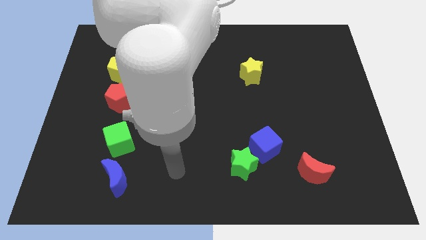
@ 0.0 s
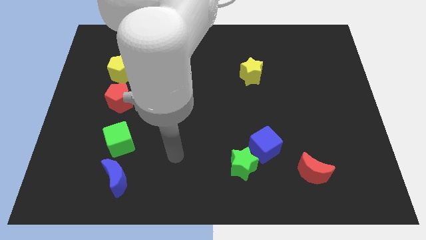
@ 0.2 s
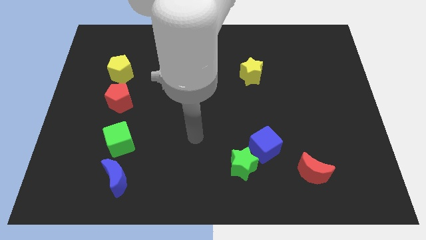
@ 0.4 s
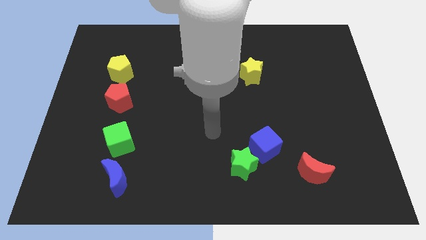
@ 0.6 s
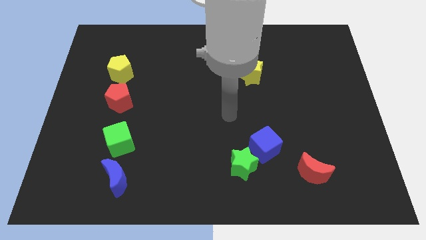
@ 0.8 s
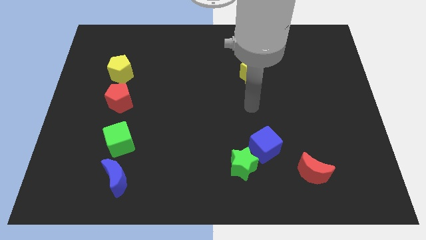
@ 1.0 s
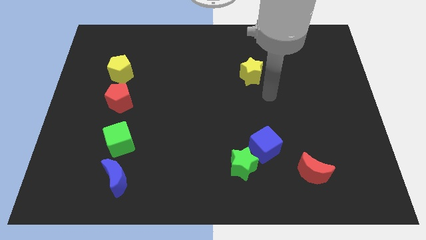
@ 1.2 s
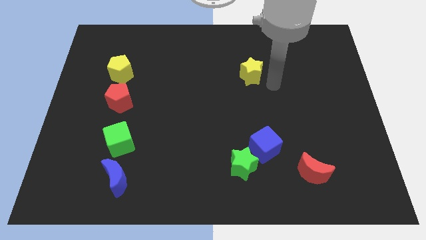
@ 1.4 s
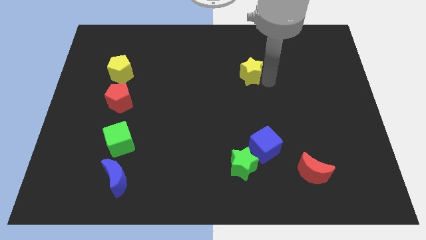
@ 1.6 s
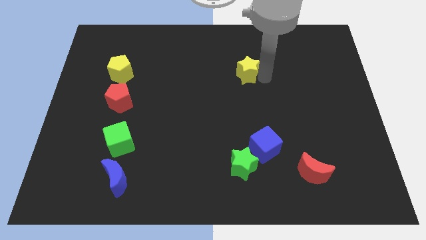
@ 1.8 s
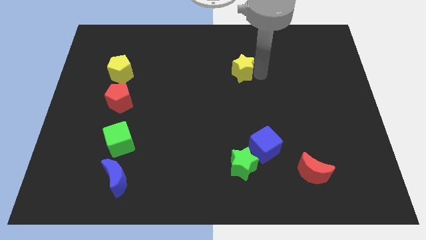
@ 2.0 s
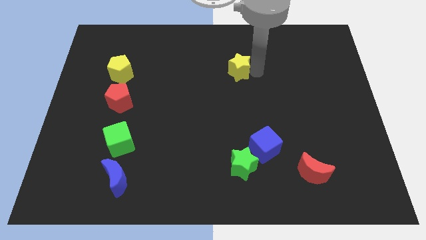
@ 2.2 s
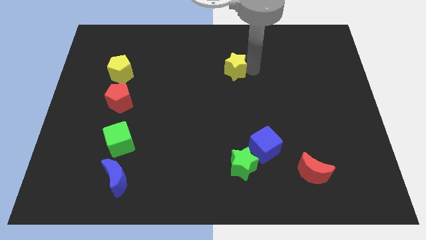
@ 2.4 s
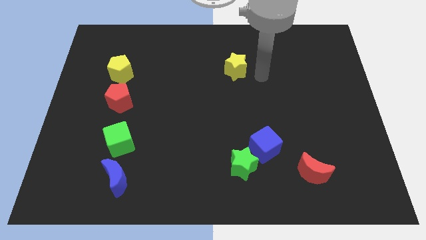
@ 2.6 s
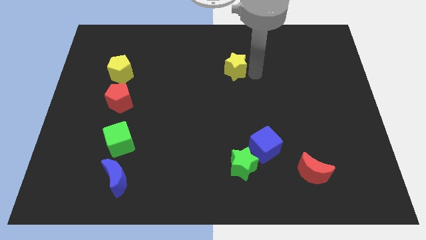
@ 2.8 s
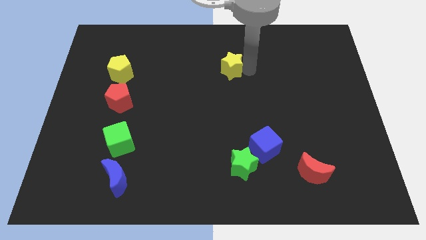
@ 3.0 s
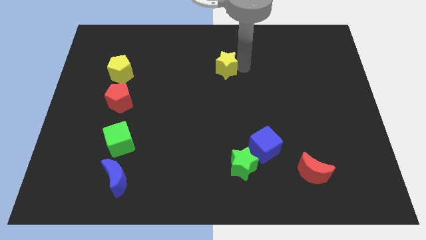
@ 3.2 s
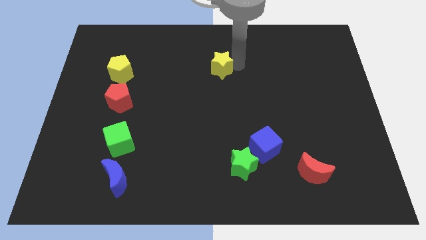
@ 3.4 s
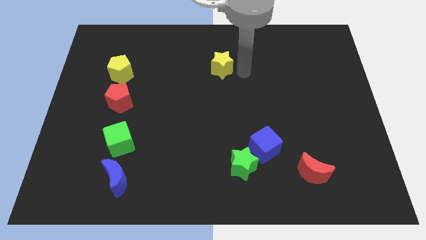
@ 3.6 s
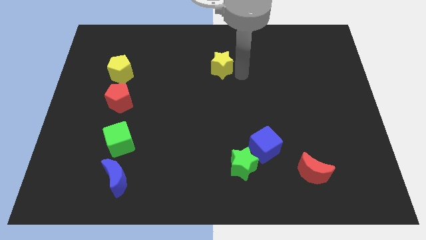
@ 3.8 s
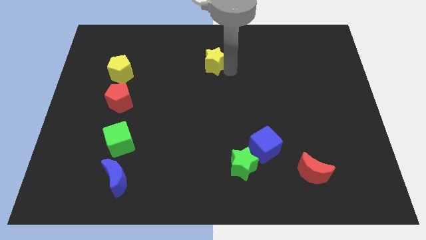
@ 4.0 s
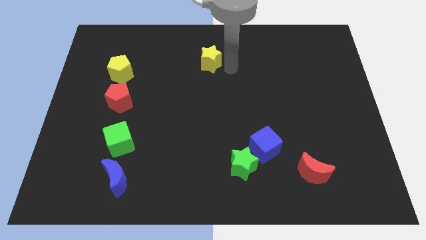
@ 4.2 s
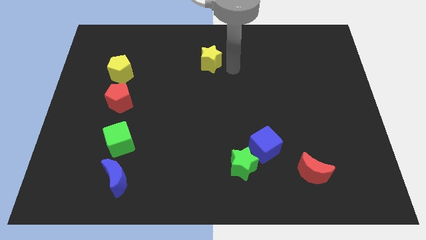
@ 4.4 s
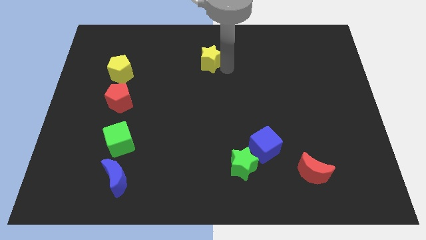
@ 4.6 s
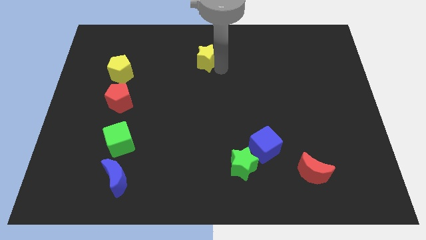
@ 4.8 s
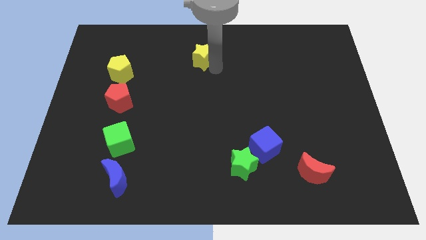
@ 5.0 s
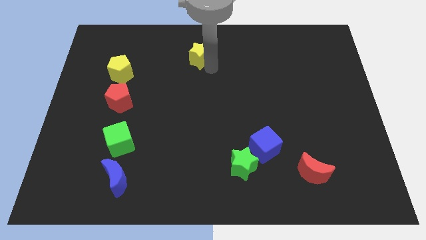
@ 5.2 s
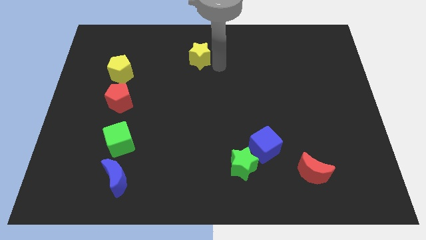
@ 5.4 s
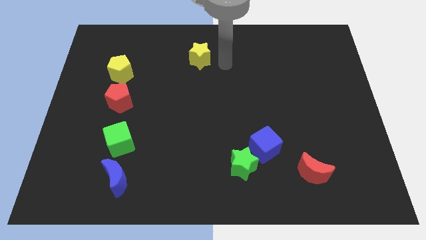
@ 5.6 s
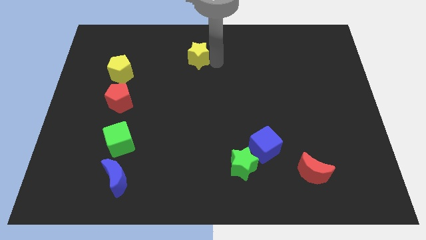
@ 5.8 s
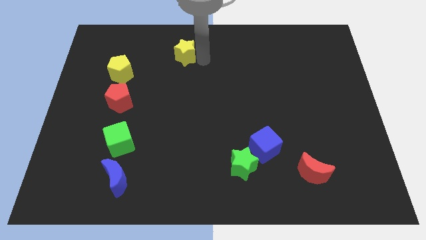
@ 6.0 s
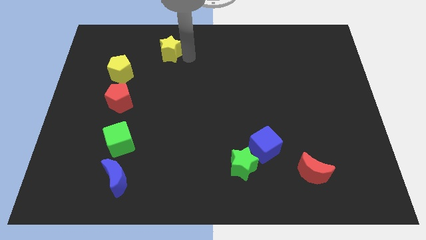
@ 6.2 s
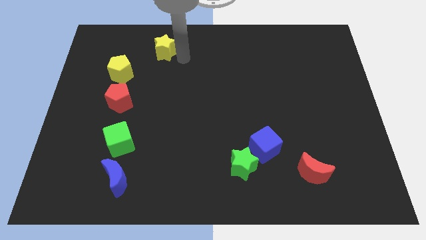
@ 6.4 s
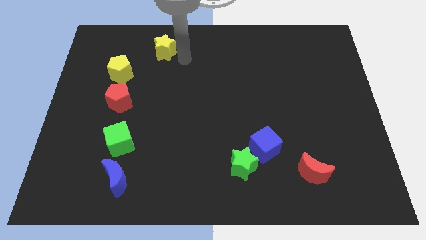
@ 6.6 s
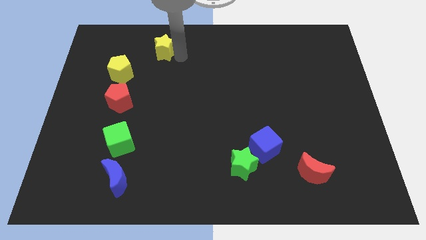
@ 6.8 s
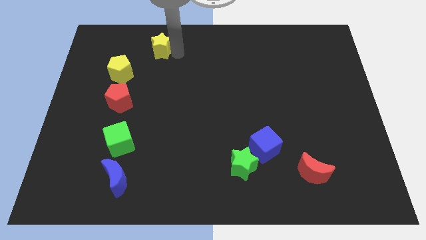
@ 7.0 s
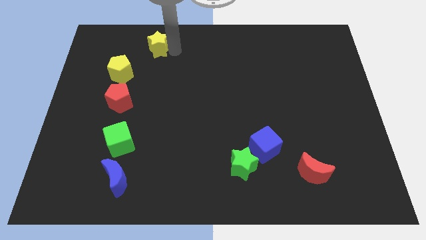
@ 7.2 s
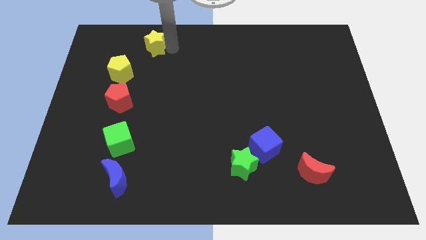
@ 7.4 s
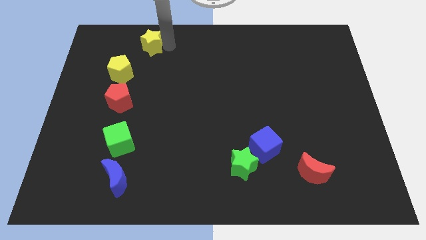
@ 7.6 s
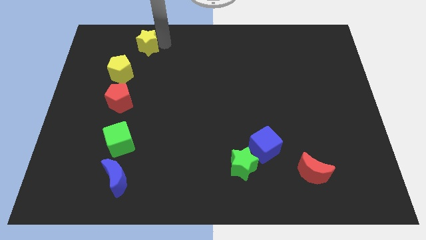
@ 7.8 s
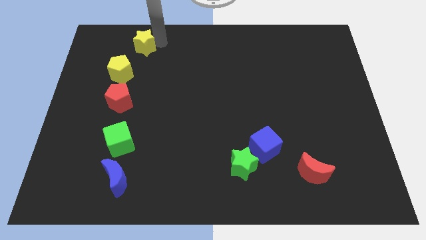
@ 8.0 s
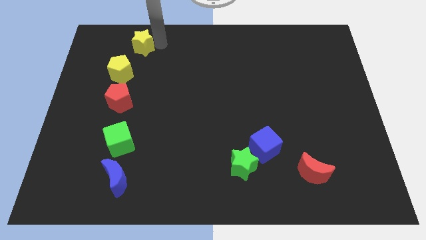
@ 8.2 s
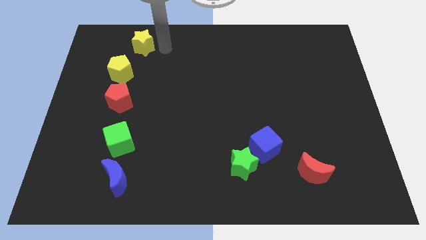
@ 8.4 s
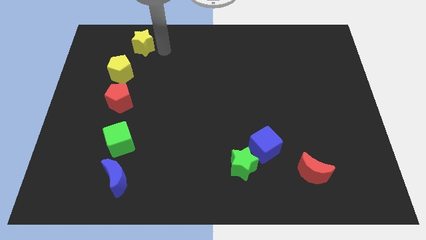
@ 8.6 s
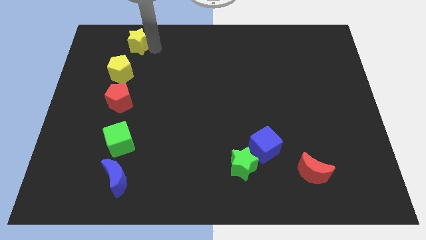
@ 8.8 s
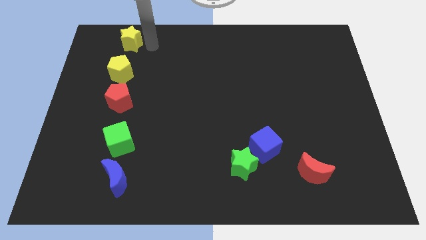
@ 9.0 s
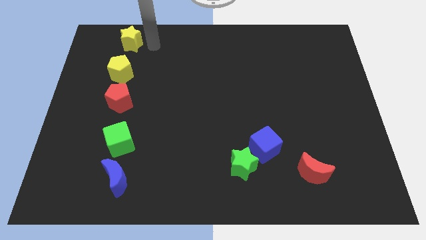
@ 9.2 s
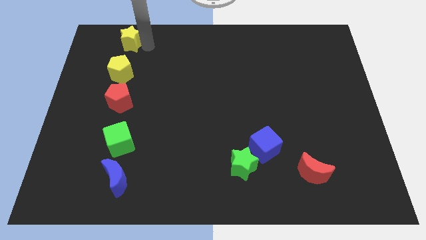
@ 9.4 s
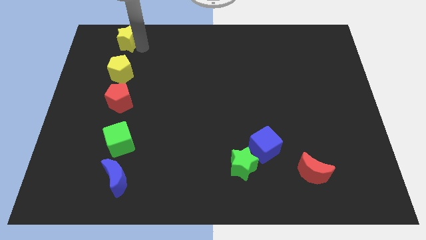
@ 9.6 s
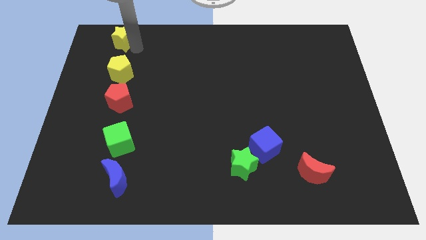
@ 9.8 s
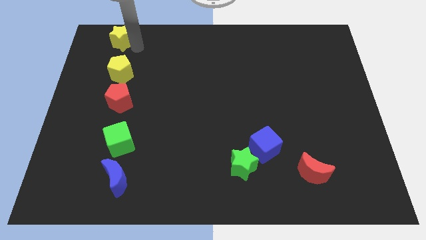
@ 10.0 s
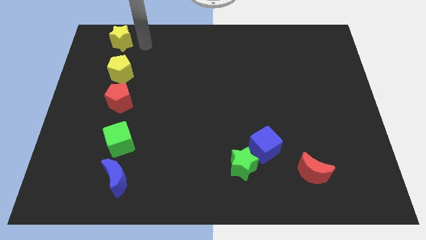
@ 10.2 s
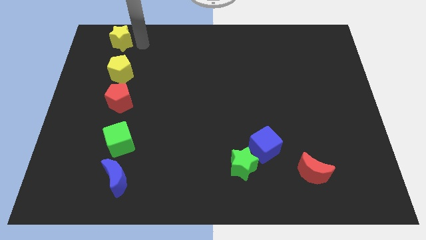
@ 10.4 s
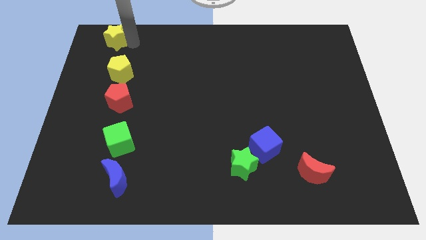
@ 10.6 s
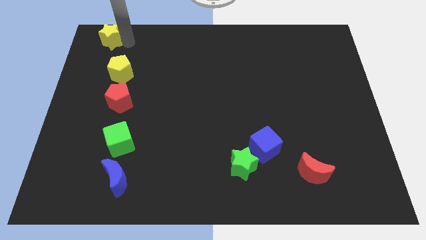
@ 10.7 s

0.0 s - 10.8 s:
push the yellow star to the upper left corner

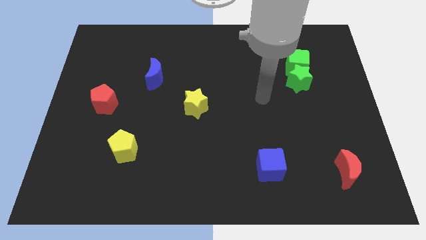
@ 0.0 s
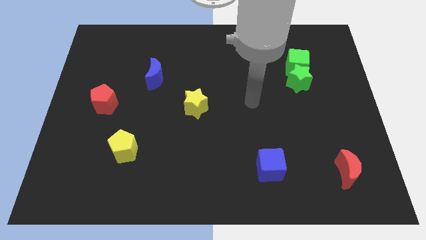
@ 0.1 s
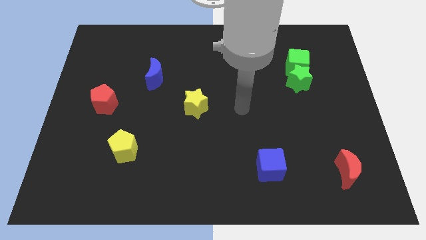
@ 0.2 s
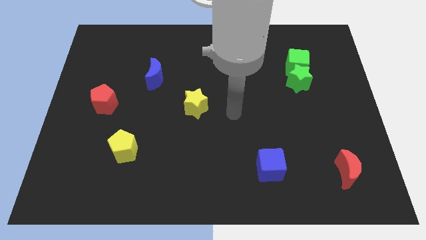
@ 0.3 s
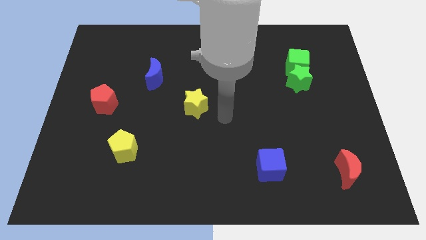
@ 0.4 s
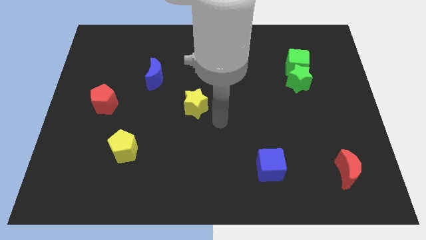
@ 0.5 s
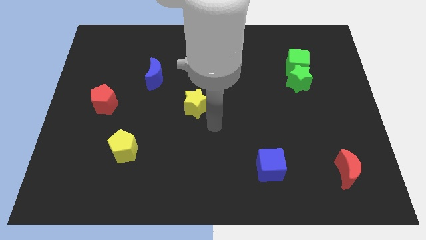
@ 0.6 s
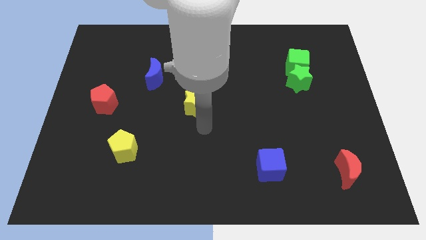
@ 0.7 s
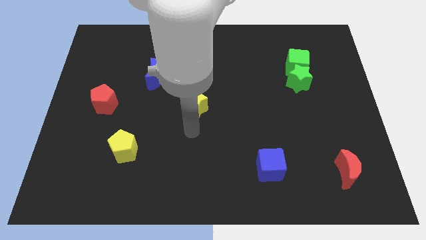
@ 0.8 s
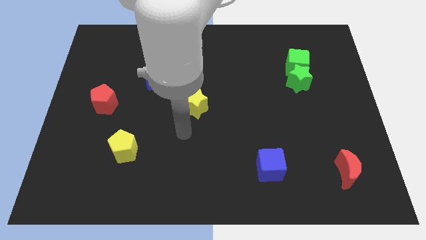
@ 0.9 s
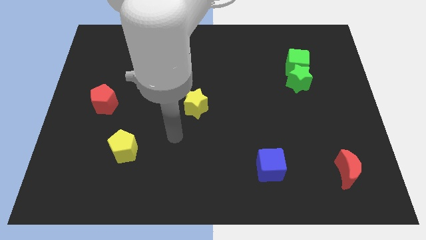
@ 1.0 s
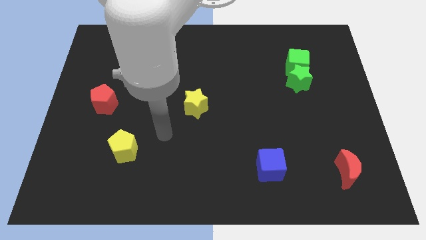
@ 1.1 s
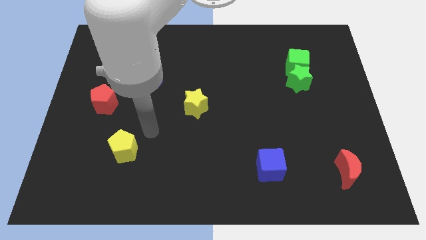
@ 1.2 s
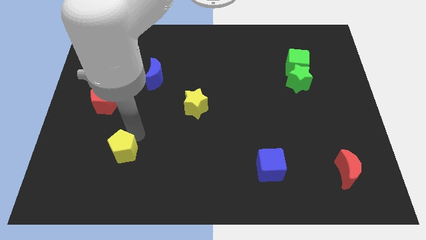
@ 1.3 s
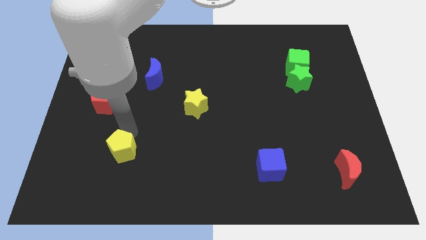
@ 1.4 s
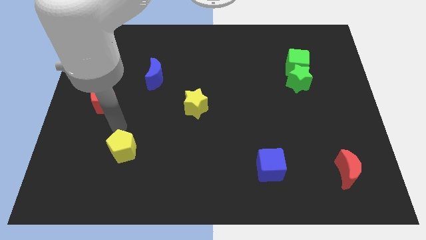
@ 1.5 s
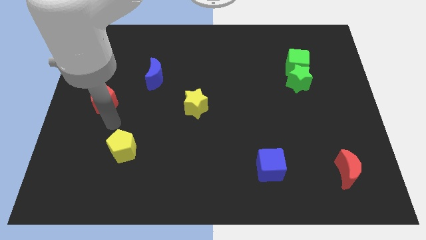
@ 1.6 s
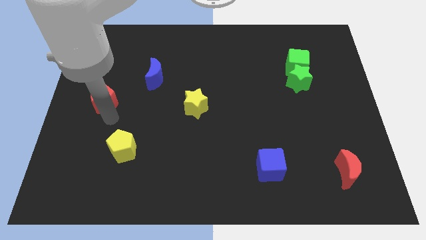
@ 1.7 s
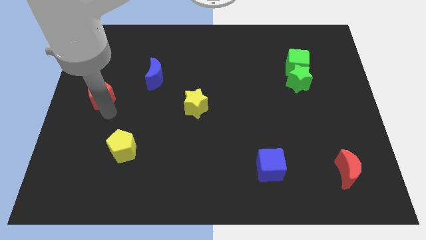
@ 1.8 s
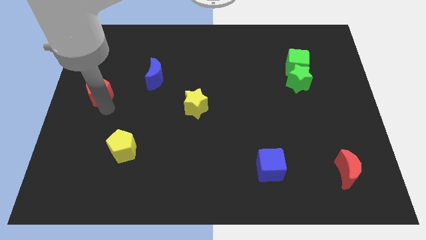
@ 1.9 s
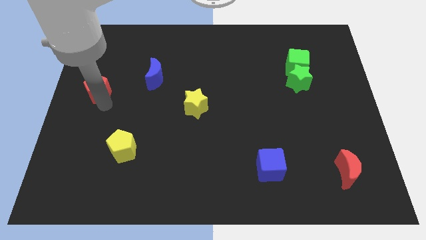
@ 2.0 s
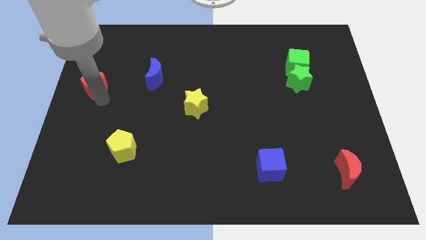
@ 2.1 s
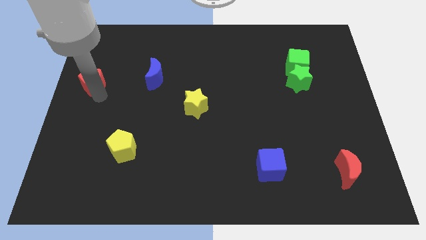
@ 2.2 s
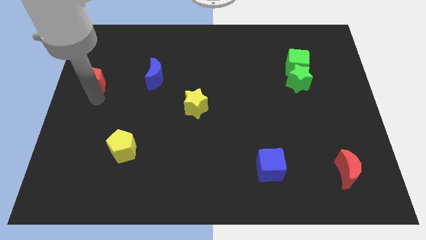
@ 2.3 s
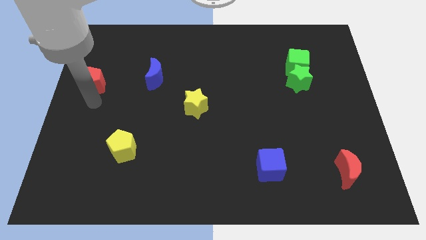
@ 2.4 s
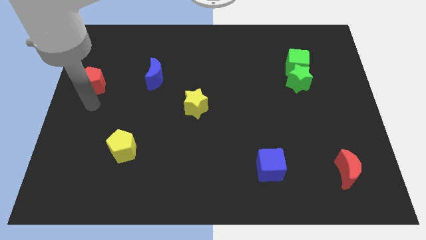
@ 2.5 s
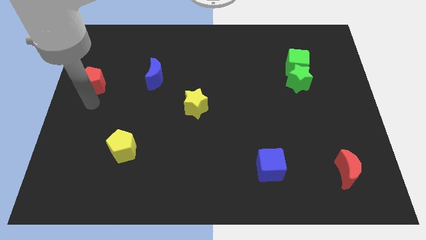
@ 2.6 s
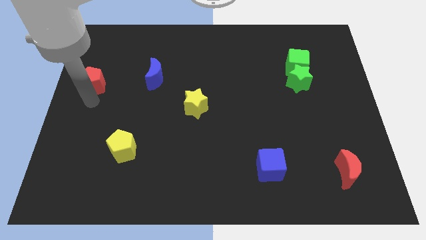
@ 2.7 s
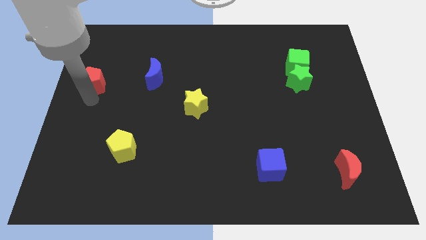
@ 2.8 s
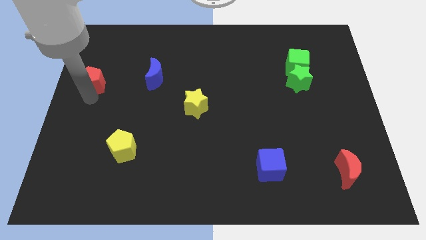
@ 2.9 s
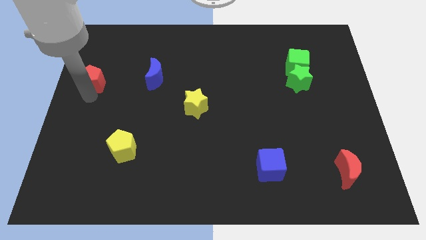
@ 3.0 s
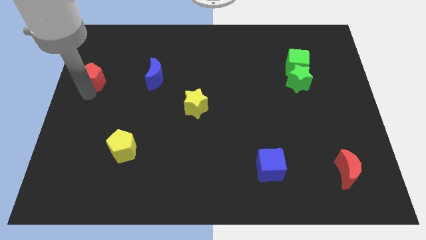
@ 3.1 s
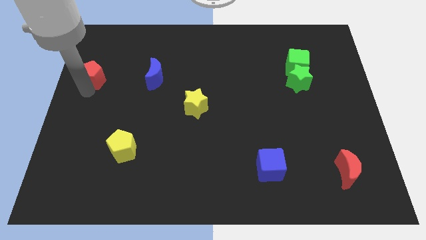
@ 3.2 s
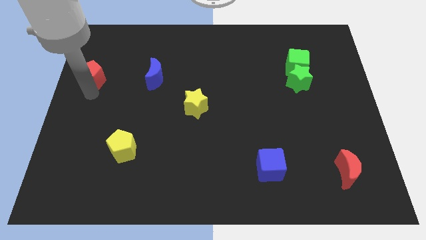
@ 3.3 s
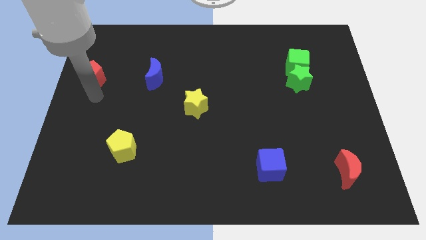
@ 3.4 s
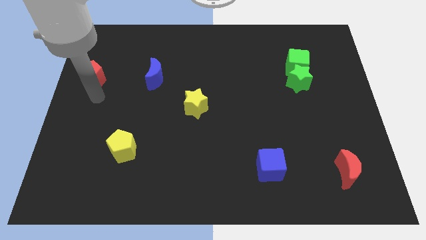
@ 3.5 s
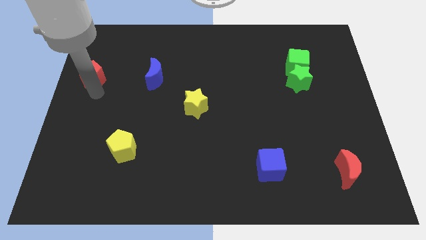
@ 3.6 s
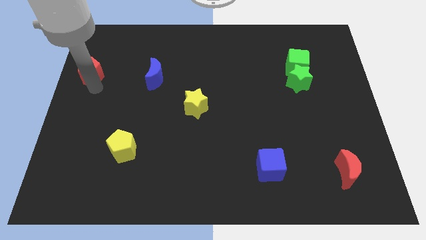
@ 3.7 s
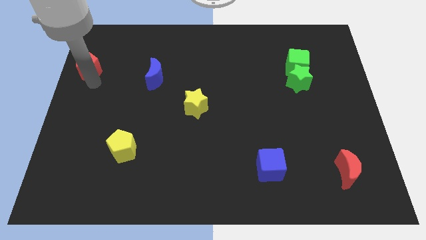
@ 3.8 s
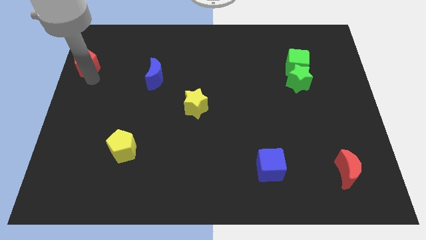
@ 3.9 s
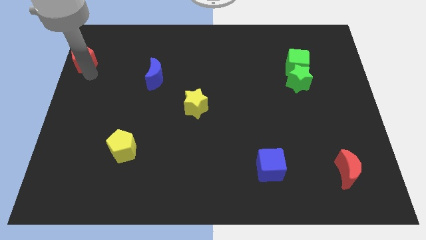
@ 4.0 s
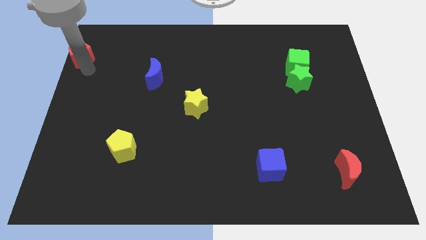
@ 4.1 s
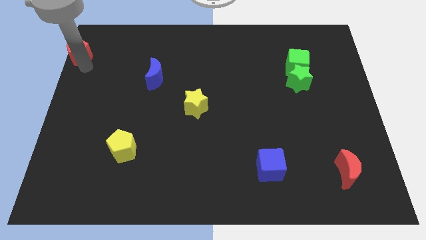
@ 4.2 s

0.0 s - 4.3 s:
put the red pentagon to the top left corner
